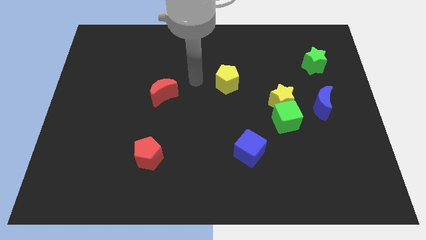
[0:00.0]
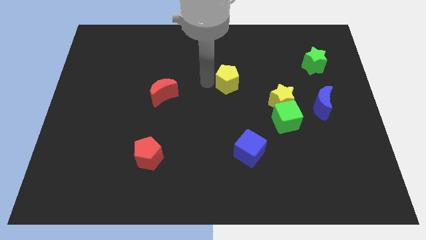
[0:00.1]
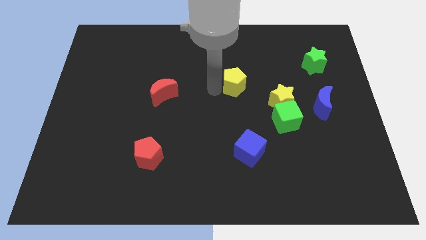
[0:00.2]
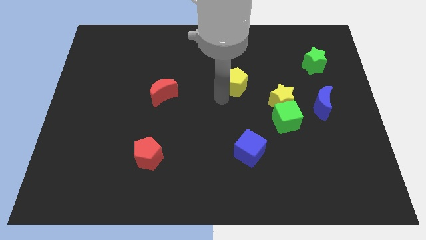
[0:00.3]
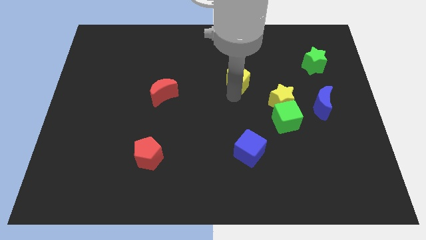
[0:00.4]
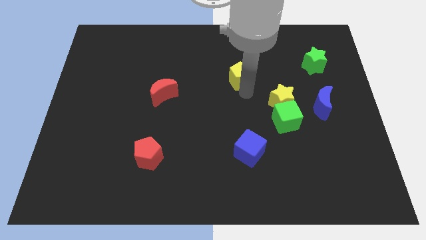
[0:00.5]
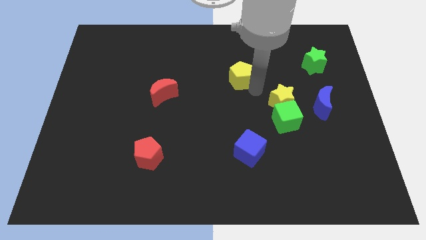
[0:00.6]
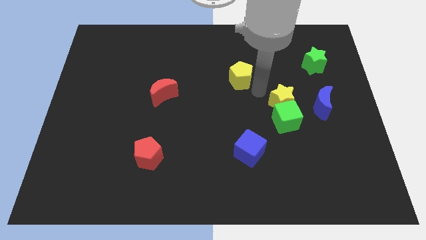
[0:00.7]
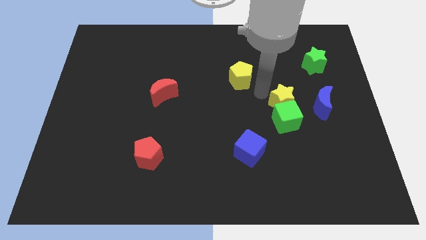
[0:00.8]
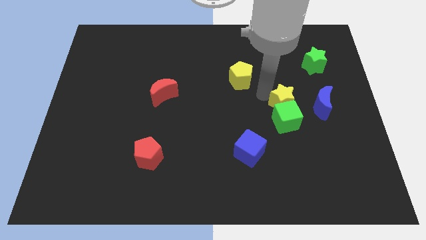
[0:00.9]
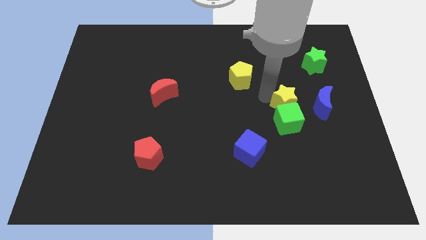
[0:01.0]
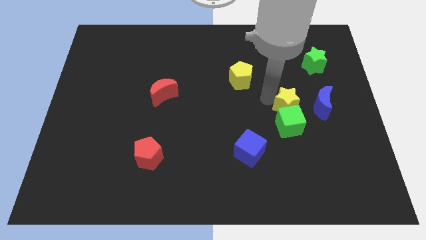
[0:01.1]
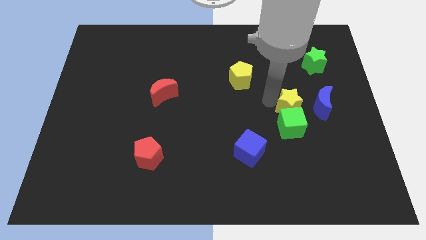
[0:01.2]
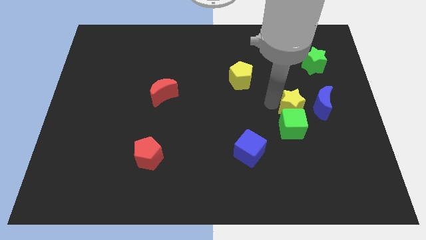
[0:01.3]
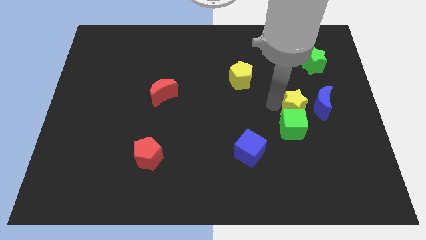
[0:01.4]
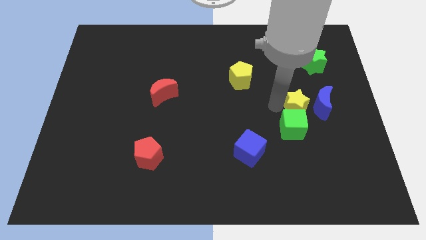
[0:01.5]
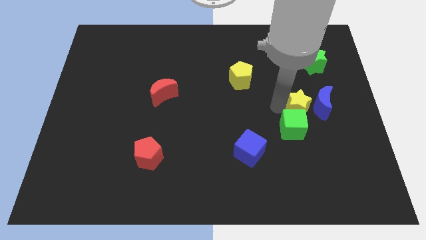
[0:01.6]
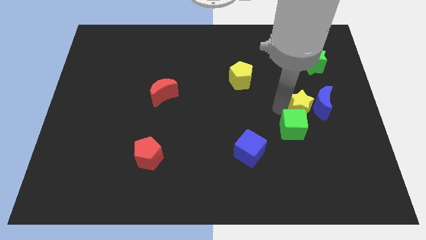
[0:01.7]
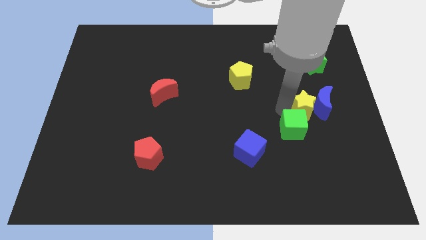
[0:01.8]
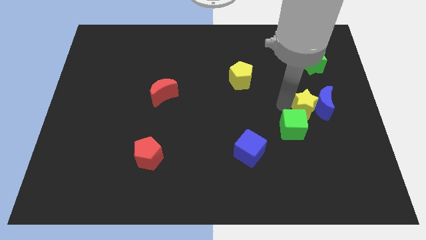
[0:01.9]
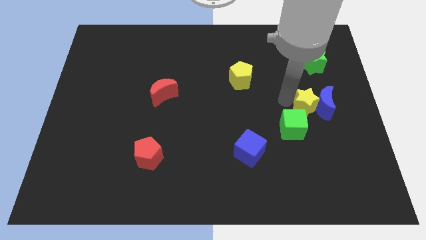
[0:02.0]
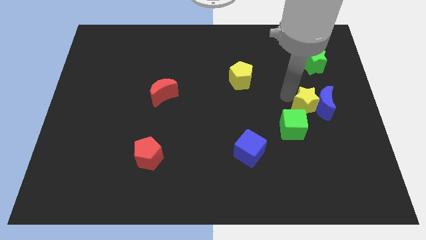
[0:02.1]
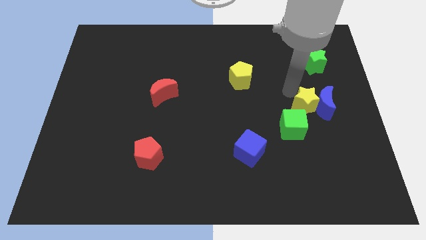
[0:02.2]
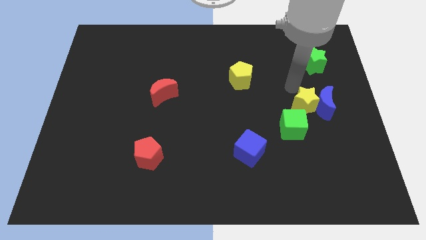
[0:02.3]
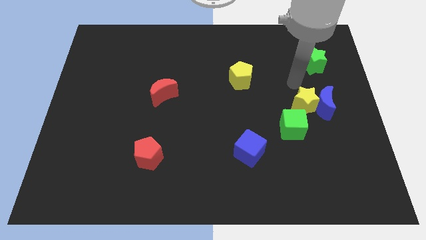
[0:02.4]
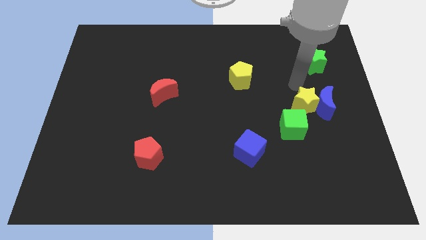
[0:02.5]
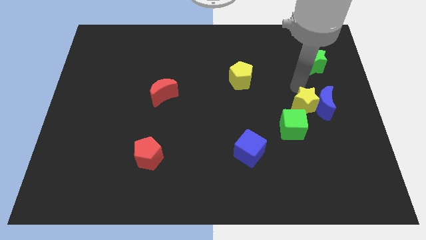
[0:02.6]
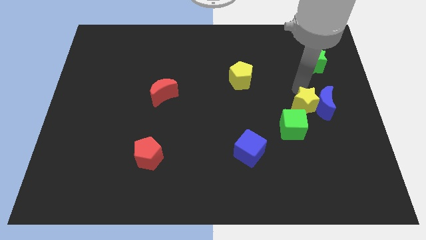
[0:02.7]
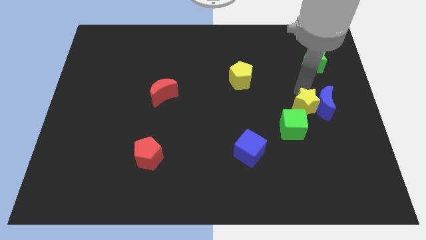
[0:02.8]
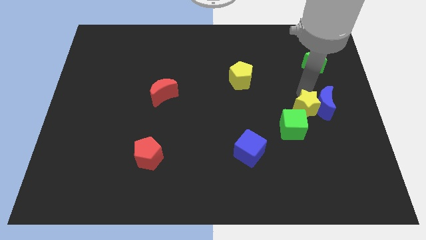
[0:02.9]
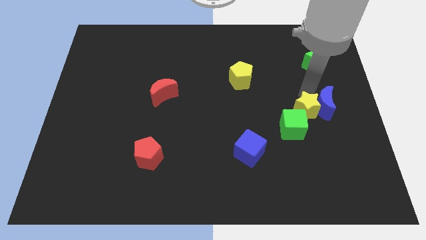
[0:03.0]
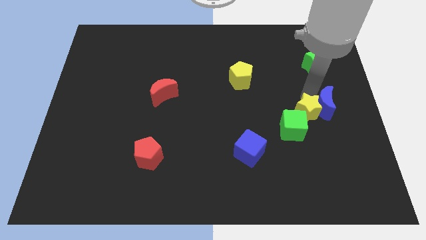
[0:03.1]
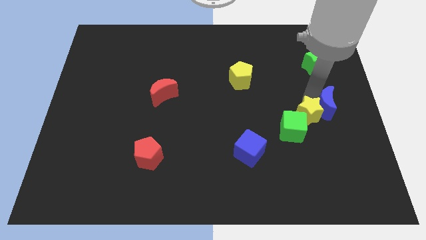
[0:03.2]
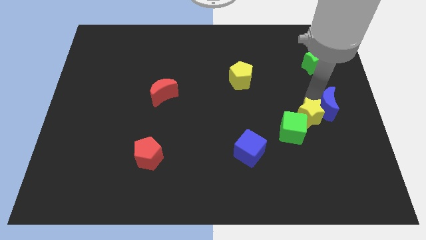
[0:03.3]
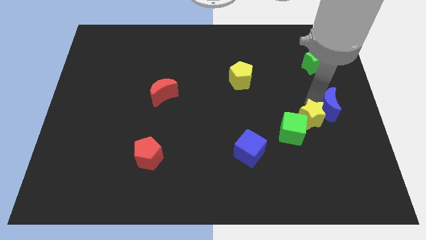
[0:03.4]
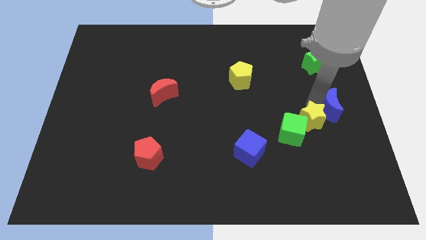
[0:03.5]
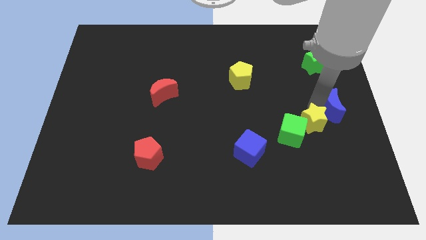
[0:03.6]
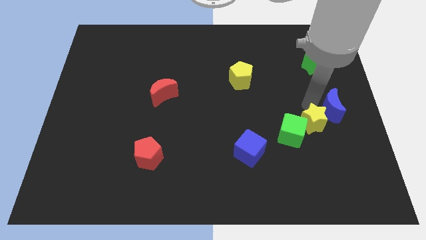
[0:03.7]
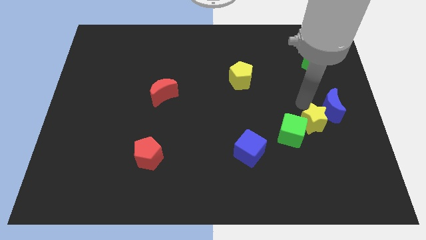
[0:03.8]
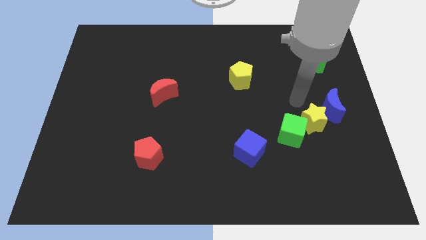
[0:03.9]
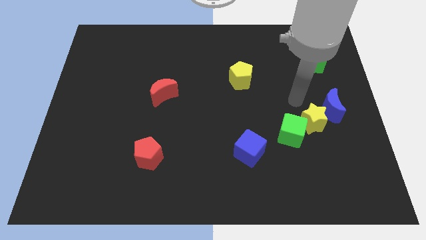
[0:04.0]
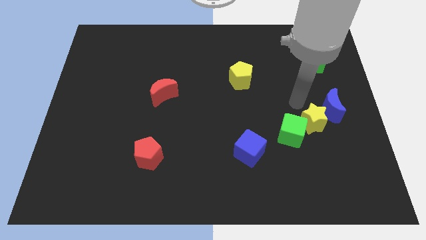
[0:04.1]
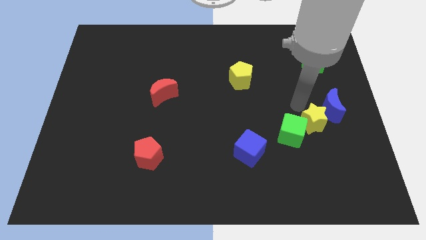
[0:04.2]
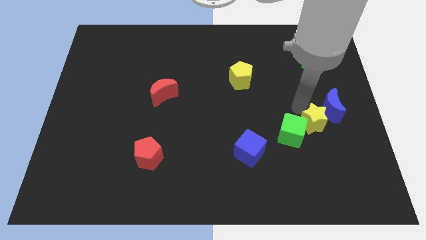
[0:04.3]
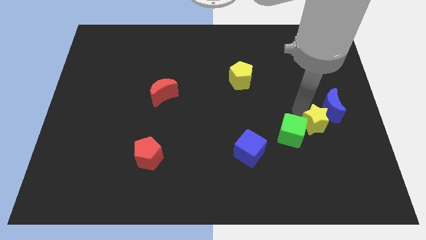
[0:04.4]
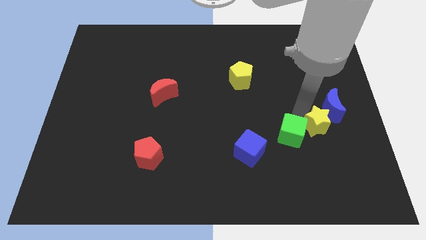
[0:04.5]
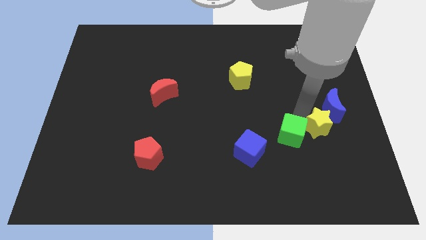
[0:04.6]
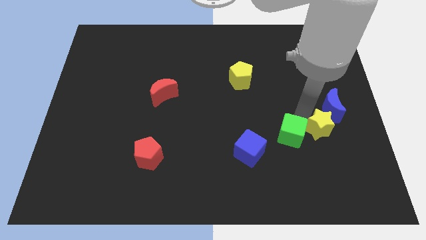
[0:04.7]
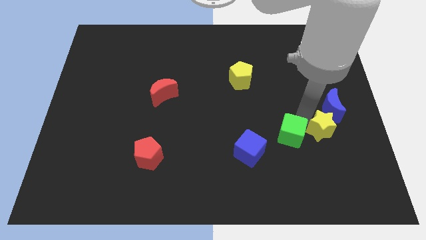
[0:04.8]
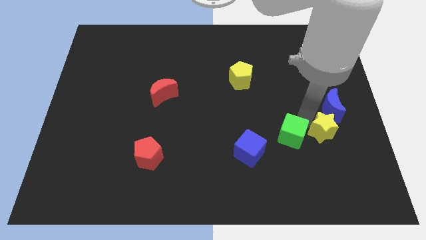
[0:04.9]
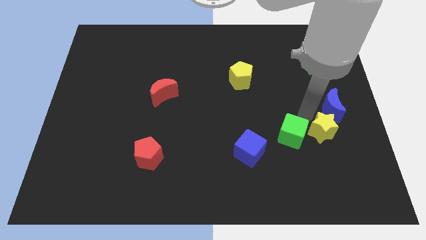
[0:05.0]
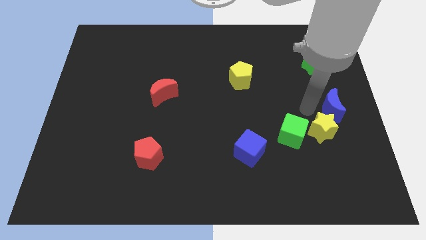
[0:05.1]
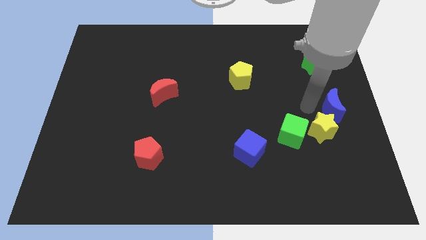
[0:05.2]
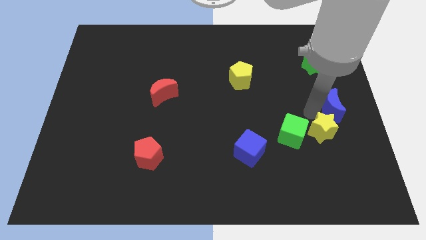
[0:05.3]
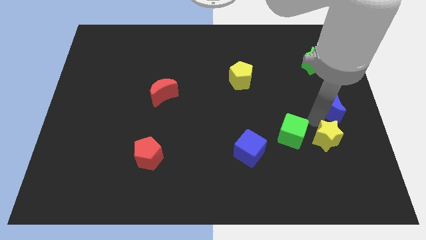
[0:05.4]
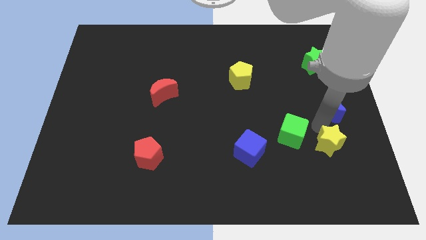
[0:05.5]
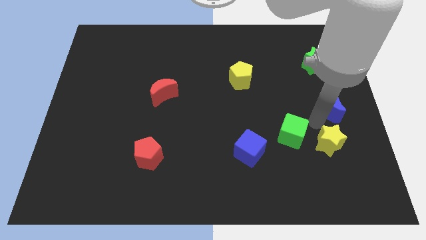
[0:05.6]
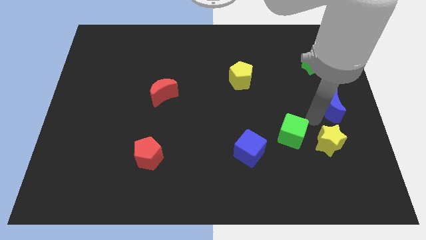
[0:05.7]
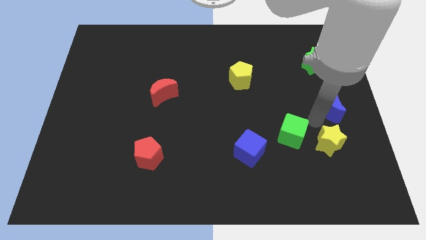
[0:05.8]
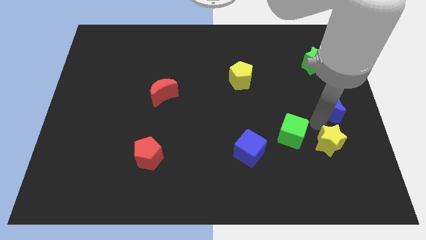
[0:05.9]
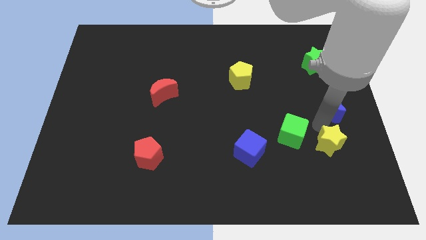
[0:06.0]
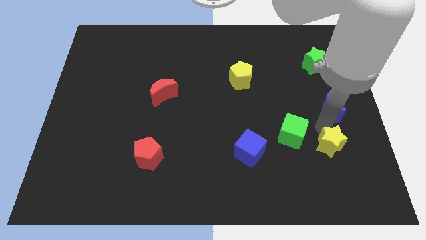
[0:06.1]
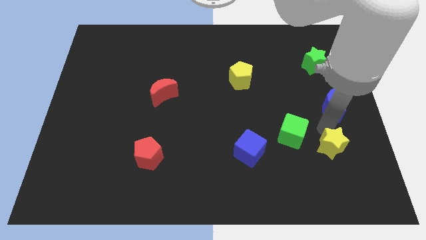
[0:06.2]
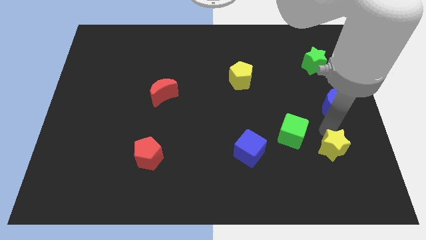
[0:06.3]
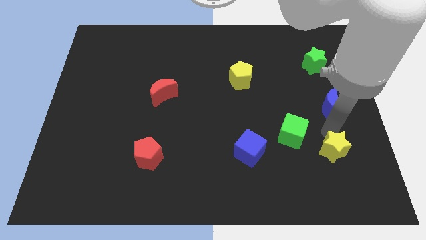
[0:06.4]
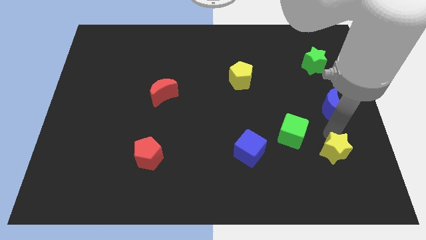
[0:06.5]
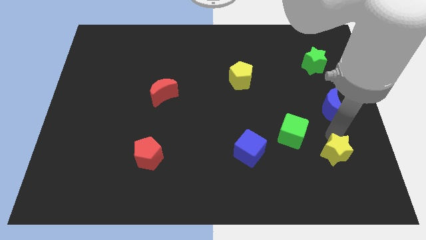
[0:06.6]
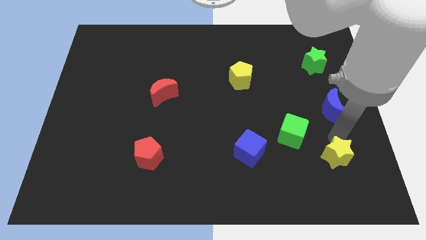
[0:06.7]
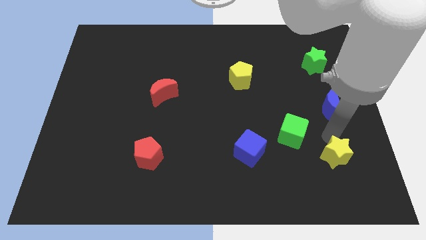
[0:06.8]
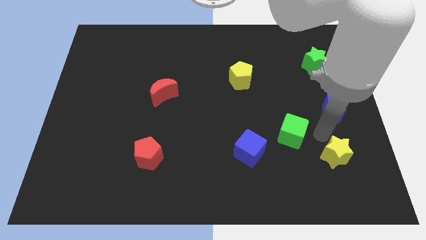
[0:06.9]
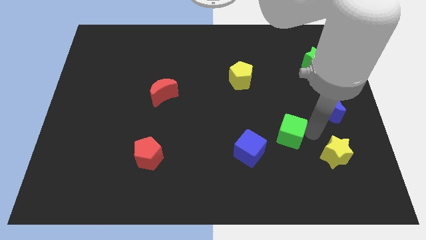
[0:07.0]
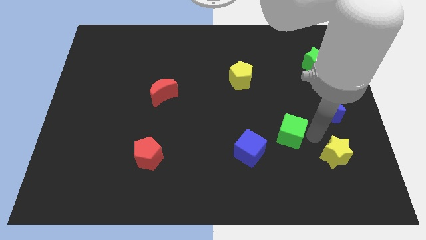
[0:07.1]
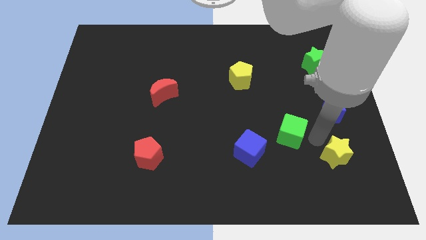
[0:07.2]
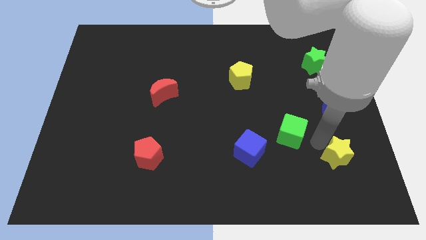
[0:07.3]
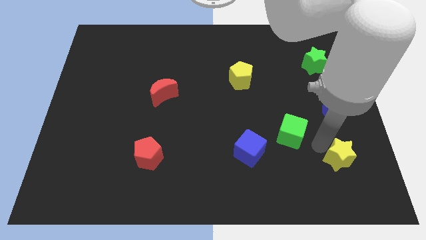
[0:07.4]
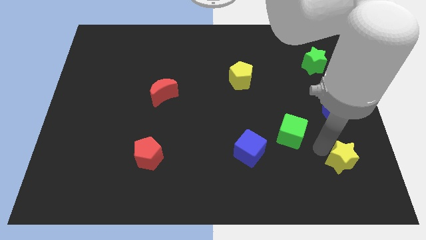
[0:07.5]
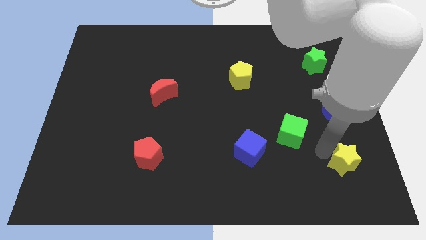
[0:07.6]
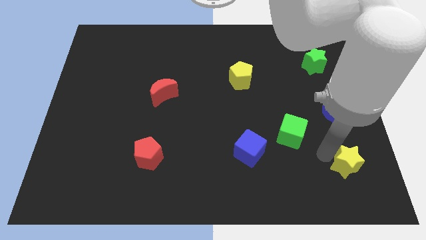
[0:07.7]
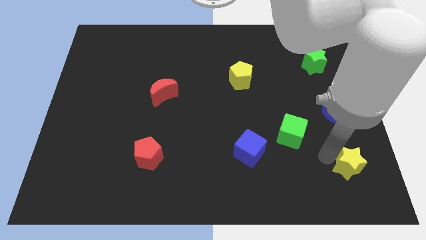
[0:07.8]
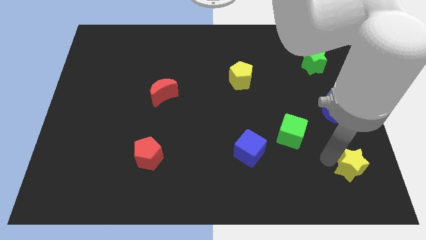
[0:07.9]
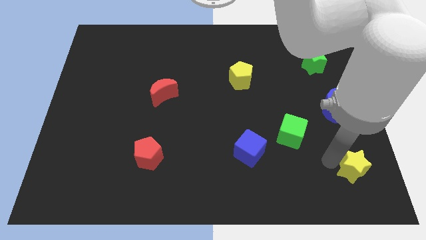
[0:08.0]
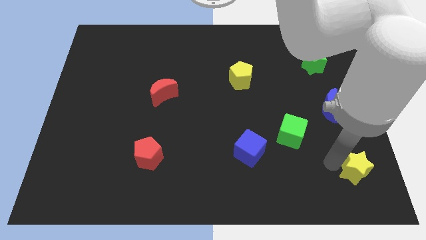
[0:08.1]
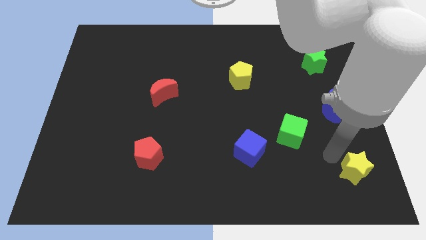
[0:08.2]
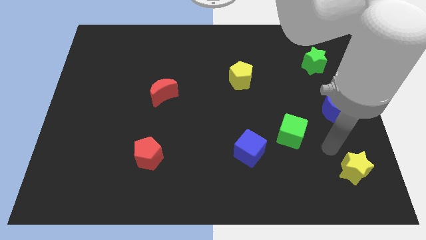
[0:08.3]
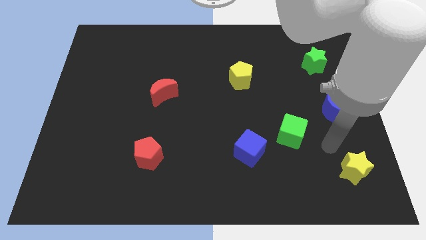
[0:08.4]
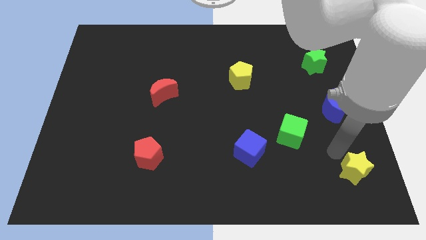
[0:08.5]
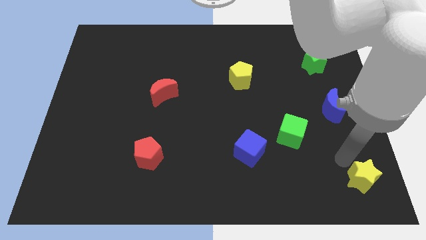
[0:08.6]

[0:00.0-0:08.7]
move the yellow star to the bottom right
